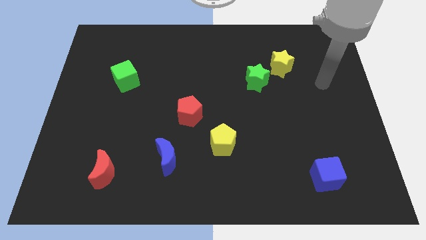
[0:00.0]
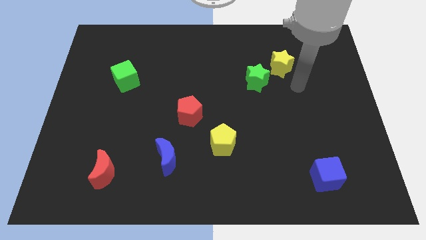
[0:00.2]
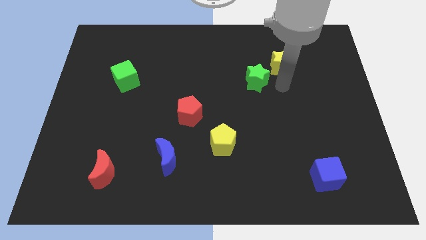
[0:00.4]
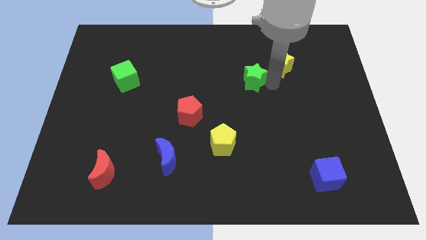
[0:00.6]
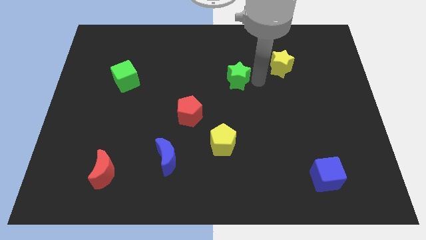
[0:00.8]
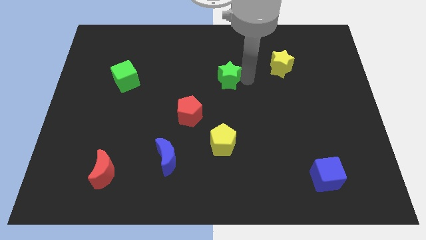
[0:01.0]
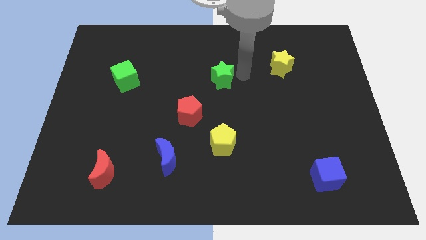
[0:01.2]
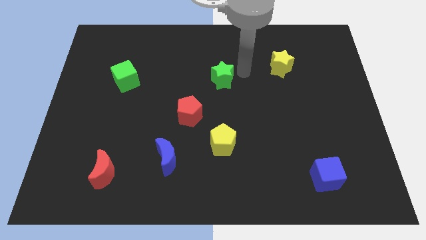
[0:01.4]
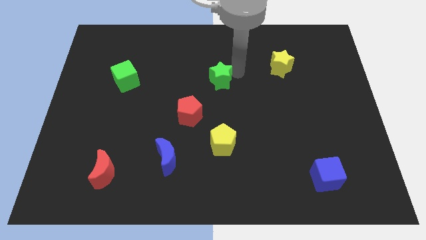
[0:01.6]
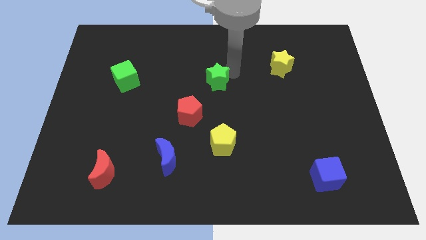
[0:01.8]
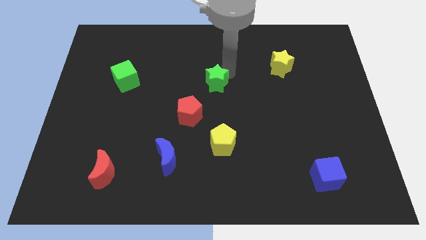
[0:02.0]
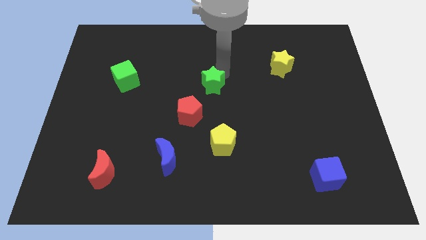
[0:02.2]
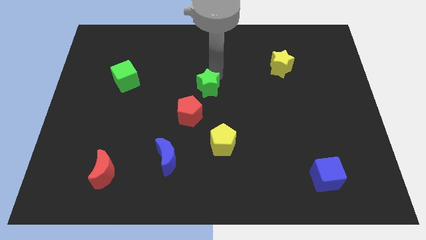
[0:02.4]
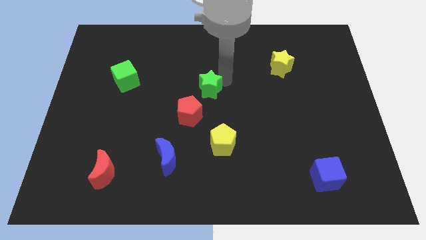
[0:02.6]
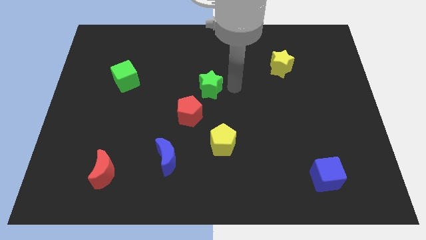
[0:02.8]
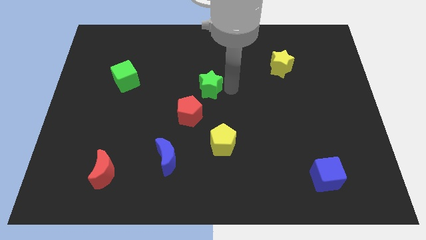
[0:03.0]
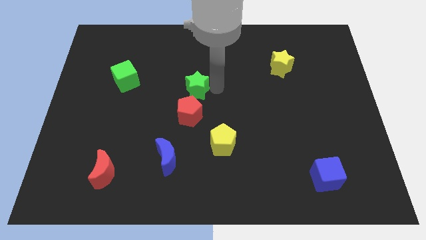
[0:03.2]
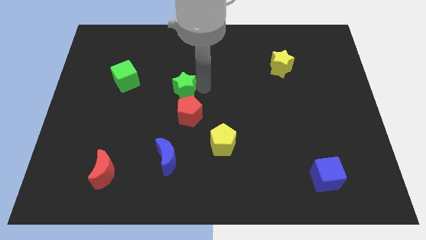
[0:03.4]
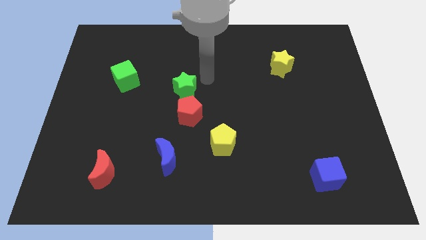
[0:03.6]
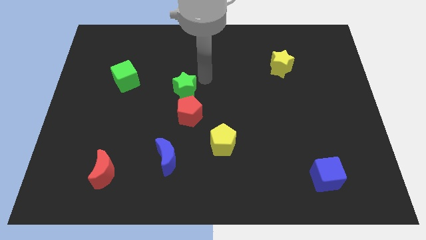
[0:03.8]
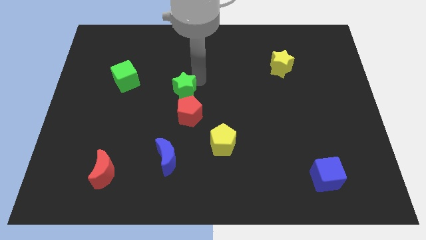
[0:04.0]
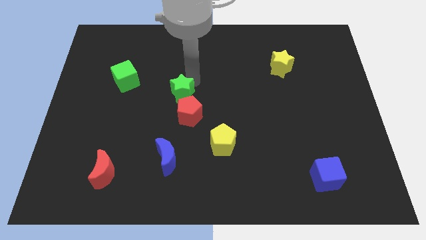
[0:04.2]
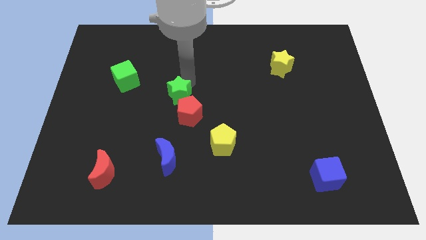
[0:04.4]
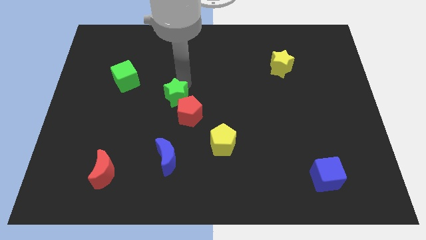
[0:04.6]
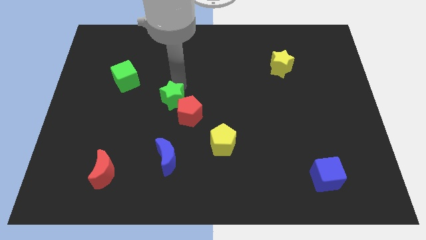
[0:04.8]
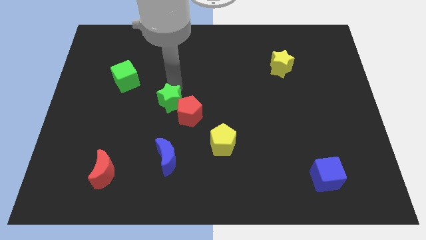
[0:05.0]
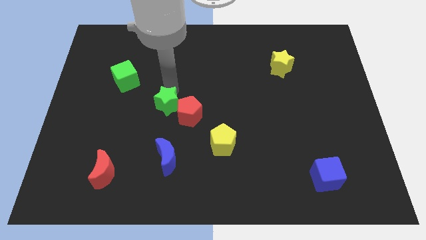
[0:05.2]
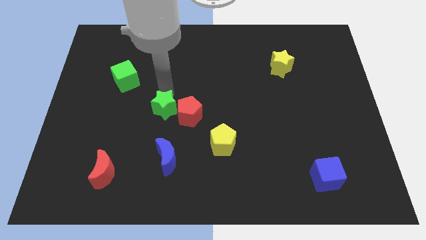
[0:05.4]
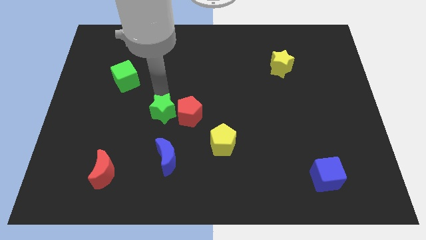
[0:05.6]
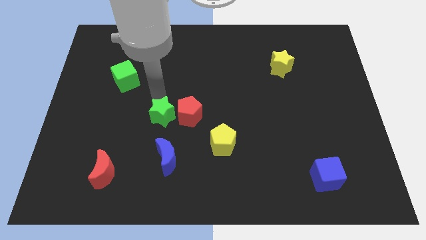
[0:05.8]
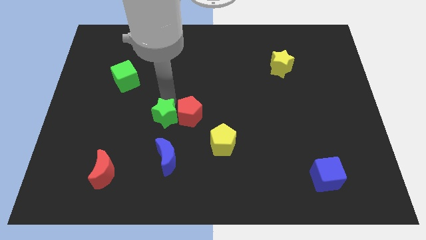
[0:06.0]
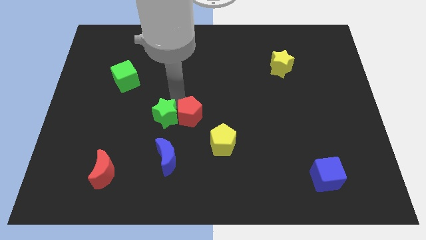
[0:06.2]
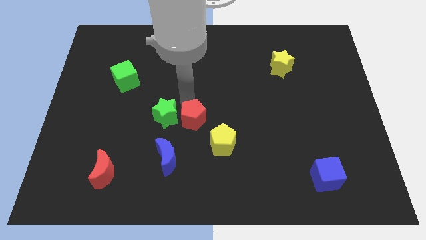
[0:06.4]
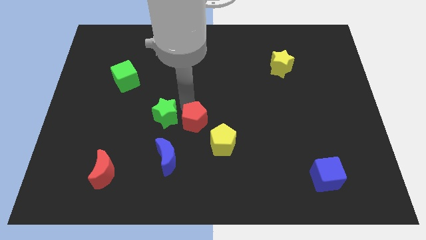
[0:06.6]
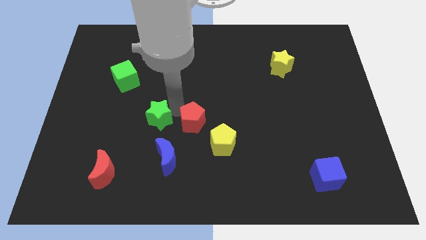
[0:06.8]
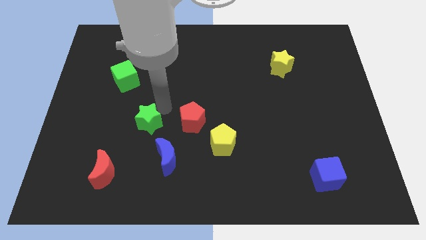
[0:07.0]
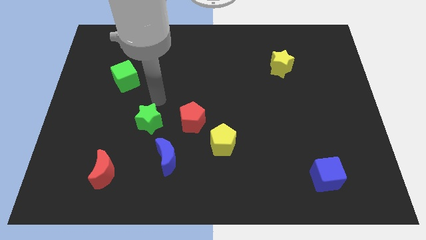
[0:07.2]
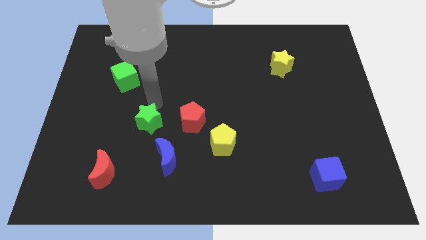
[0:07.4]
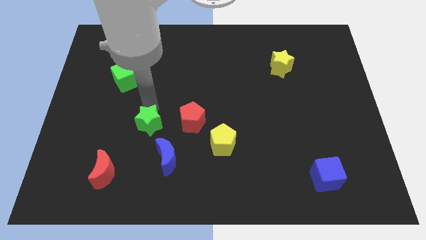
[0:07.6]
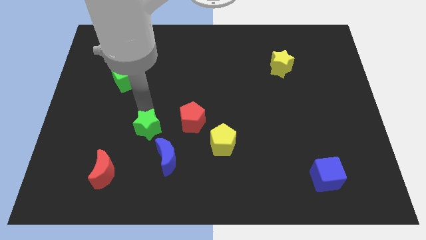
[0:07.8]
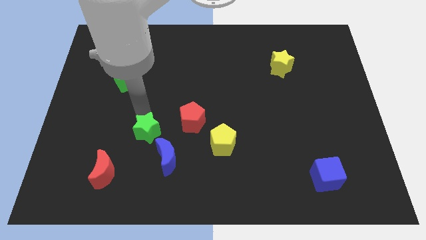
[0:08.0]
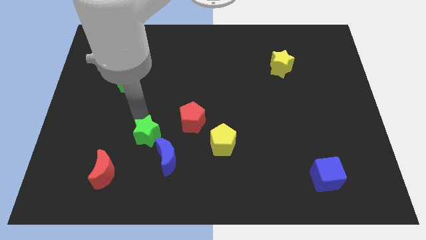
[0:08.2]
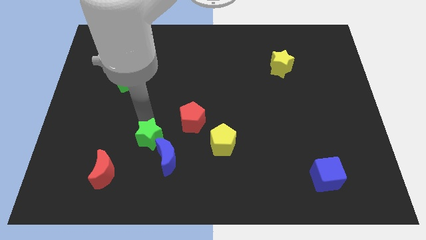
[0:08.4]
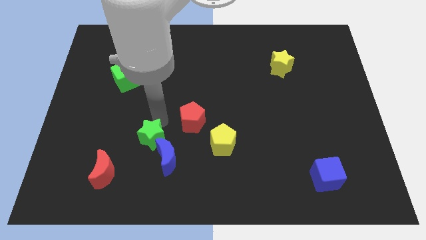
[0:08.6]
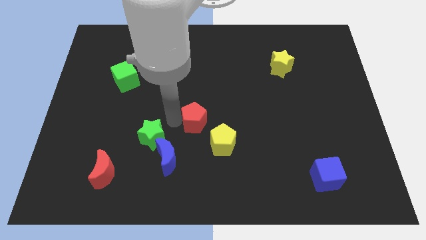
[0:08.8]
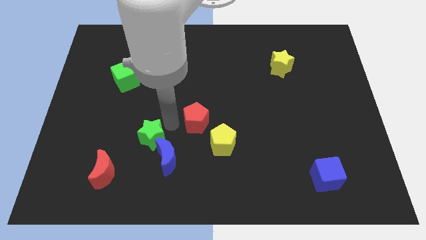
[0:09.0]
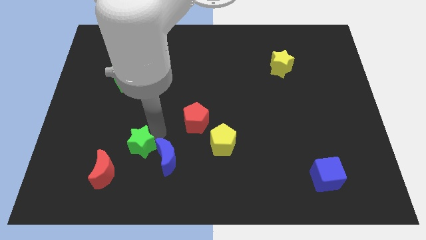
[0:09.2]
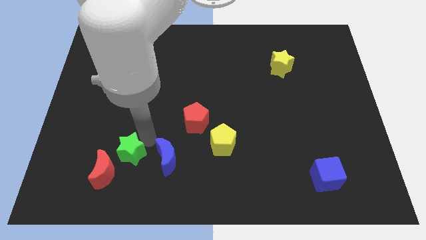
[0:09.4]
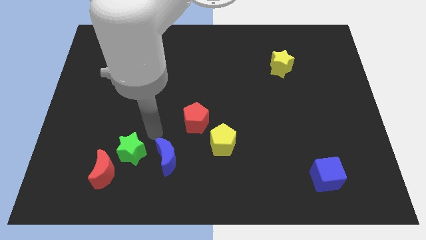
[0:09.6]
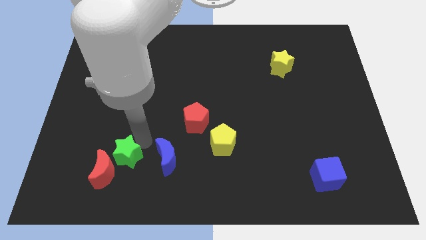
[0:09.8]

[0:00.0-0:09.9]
slide the green star next to the red moon

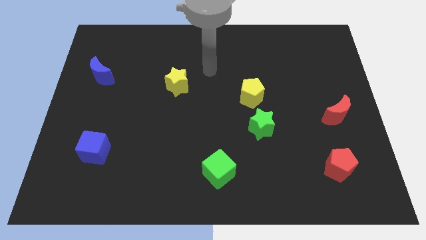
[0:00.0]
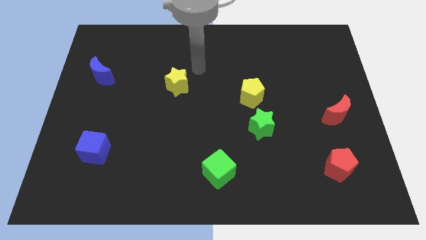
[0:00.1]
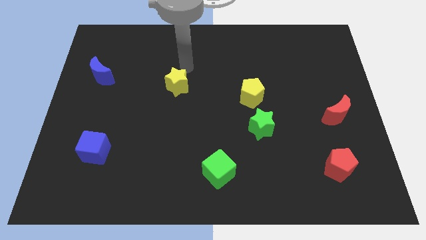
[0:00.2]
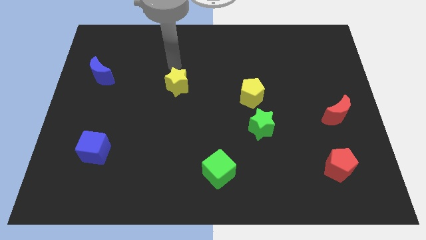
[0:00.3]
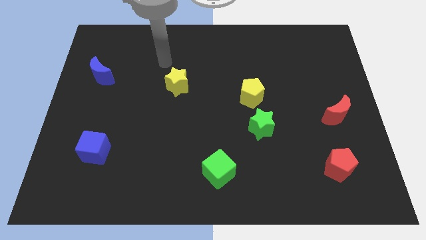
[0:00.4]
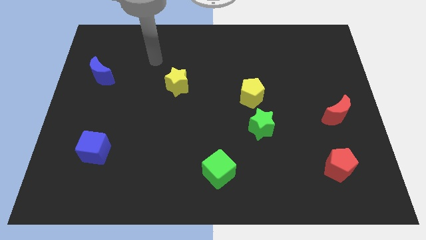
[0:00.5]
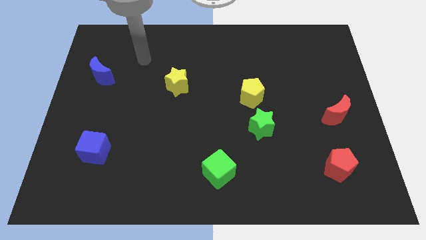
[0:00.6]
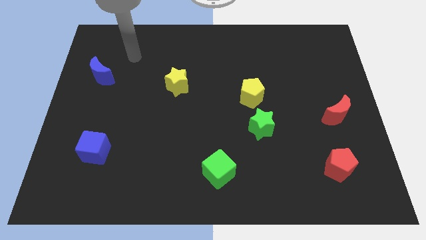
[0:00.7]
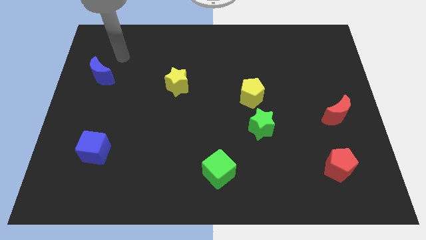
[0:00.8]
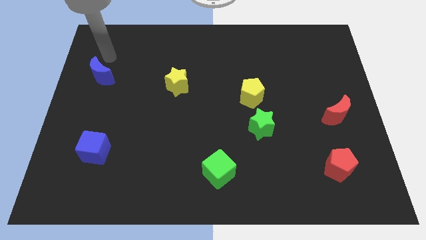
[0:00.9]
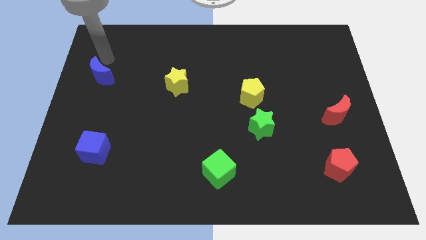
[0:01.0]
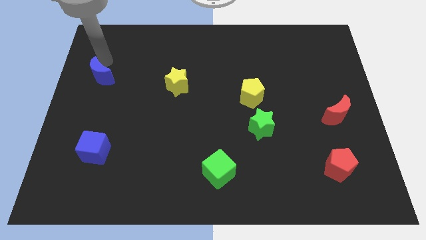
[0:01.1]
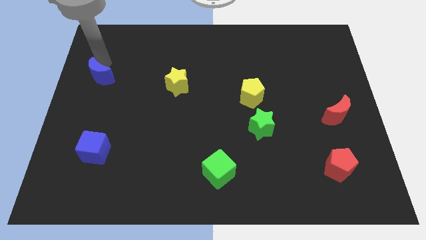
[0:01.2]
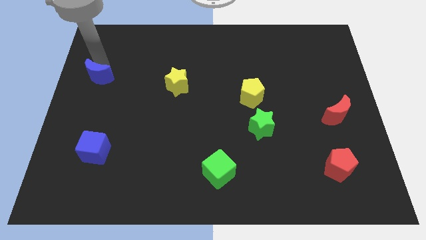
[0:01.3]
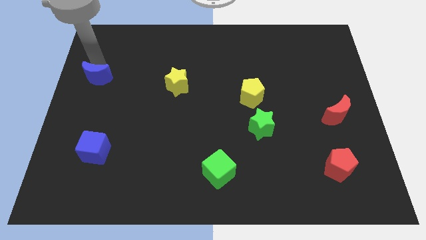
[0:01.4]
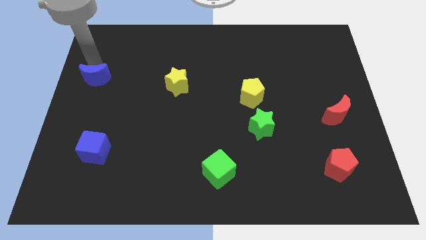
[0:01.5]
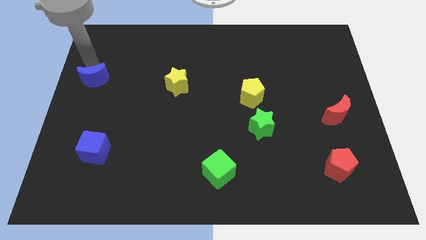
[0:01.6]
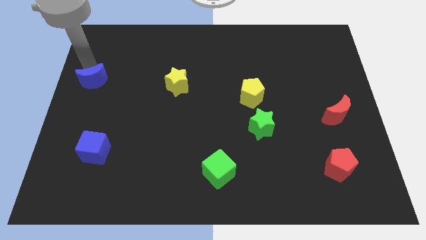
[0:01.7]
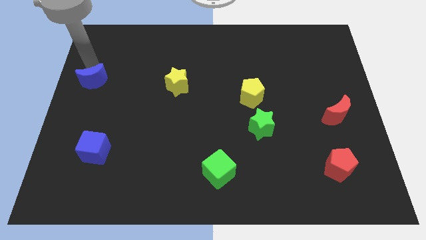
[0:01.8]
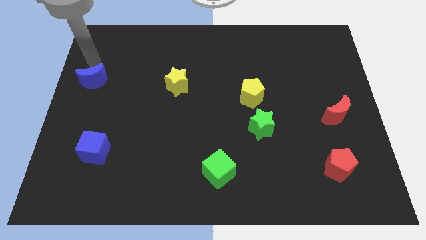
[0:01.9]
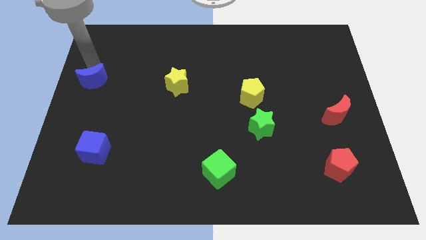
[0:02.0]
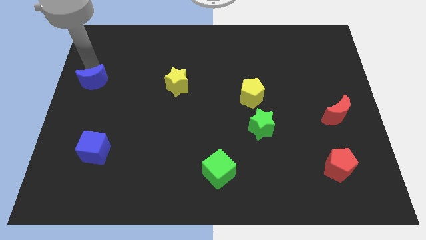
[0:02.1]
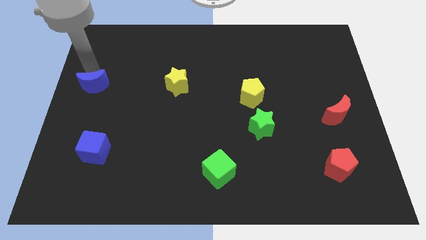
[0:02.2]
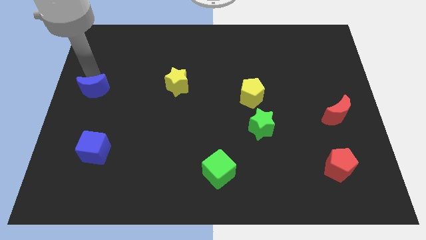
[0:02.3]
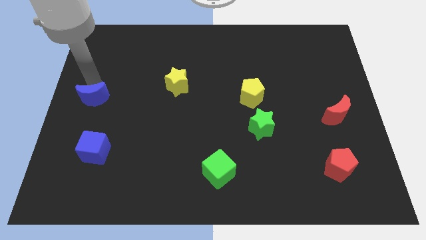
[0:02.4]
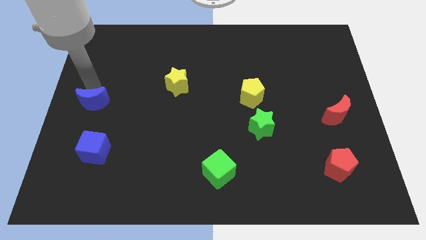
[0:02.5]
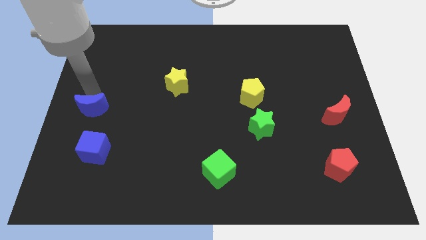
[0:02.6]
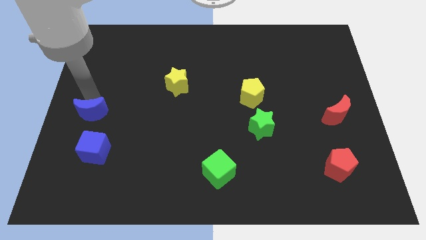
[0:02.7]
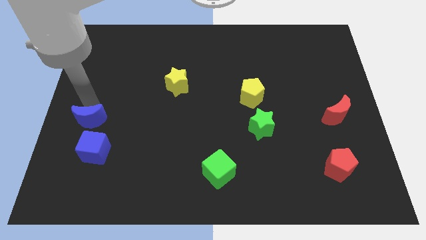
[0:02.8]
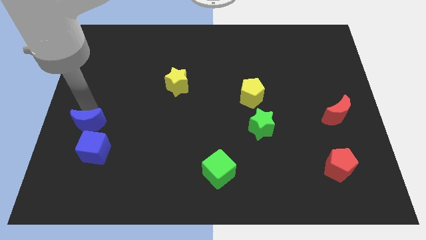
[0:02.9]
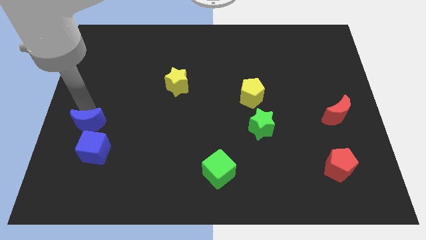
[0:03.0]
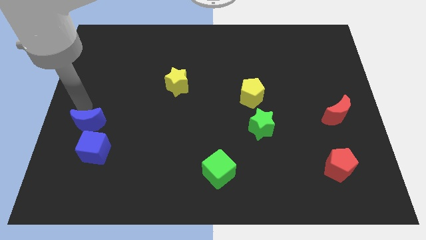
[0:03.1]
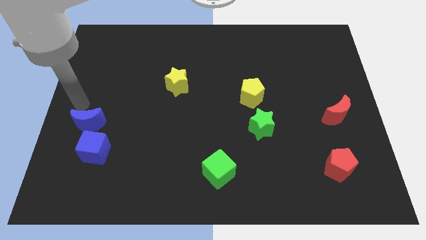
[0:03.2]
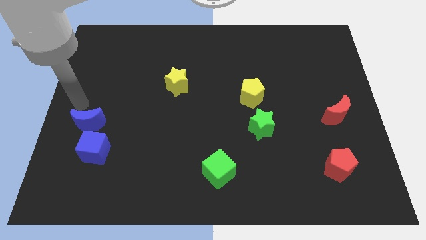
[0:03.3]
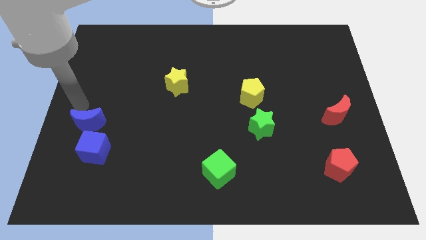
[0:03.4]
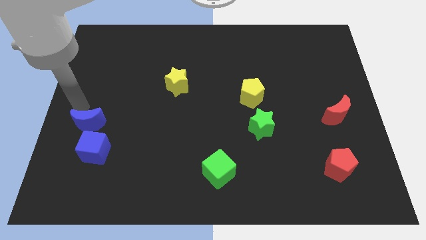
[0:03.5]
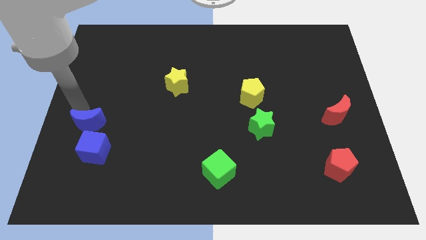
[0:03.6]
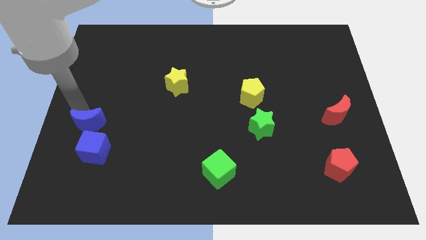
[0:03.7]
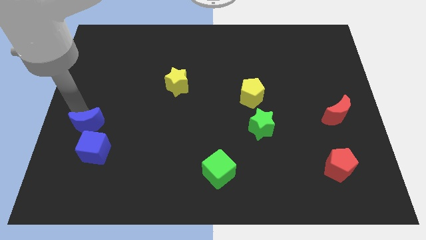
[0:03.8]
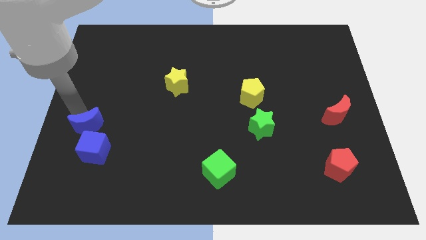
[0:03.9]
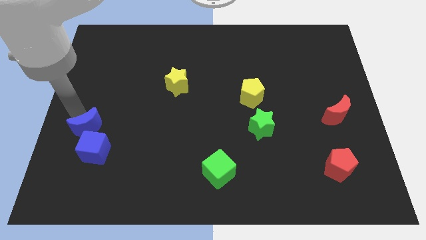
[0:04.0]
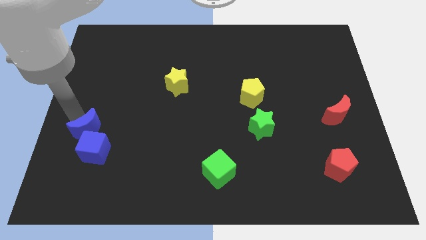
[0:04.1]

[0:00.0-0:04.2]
slide the blue moon towards the blue cube
